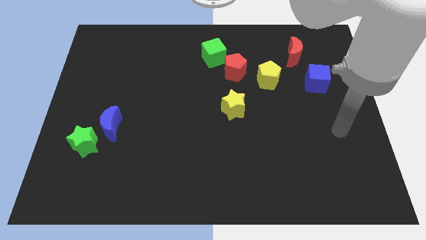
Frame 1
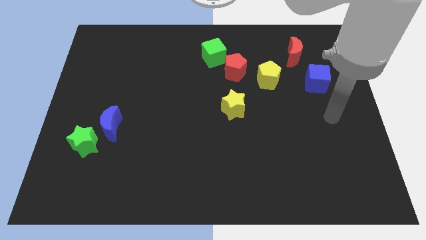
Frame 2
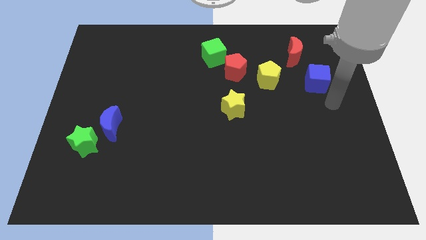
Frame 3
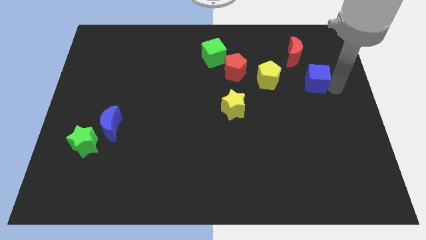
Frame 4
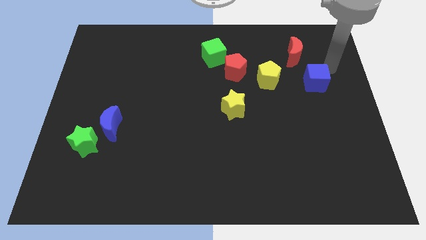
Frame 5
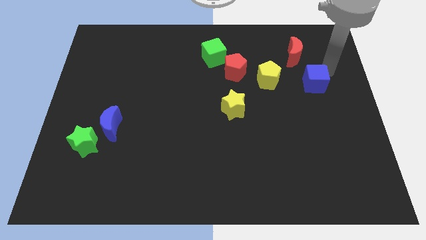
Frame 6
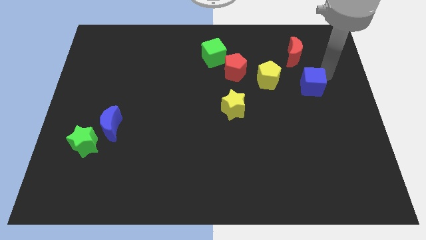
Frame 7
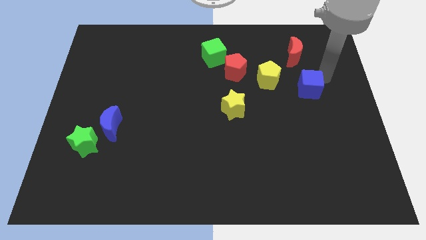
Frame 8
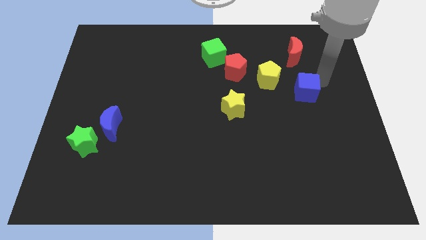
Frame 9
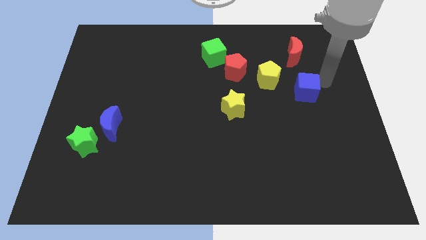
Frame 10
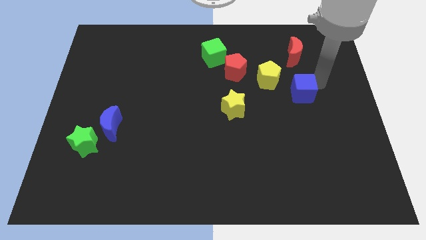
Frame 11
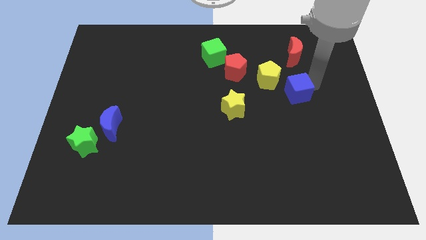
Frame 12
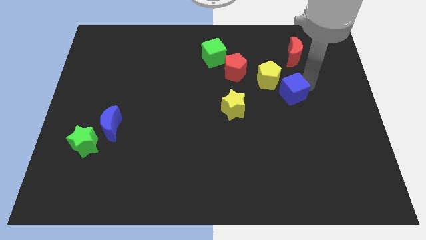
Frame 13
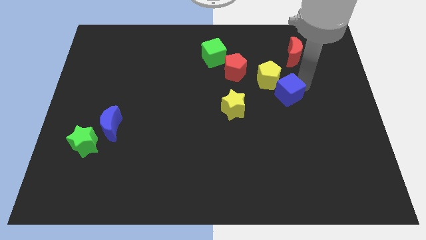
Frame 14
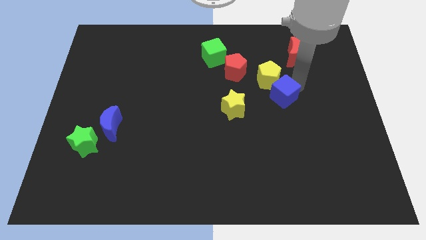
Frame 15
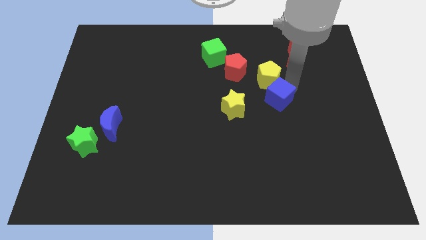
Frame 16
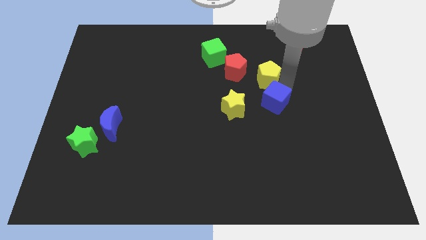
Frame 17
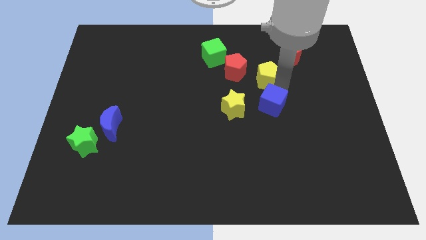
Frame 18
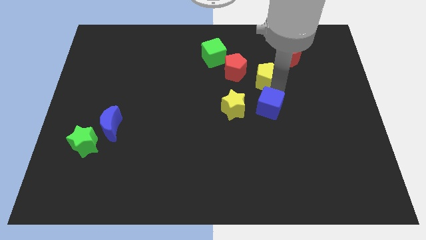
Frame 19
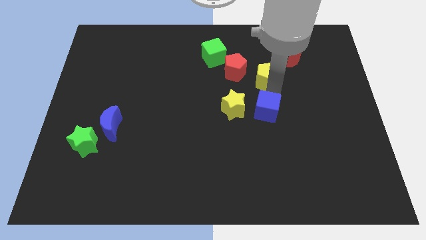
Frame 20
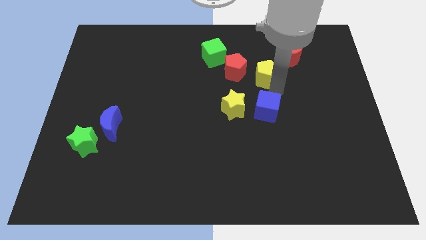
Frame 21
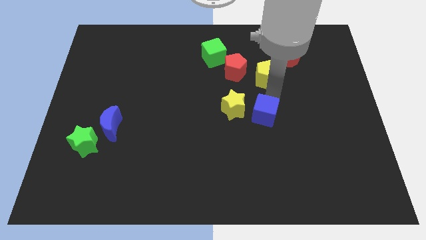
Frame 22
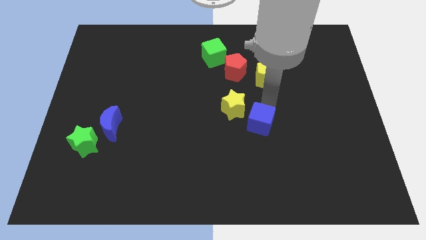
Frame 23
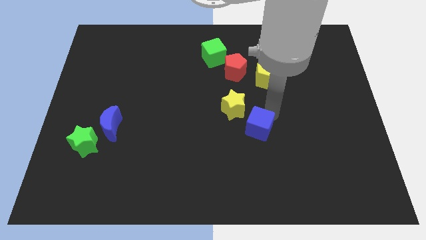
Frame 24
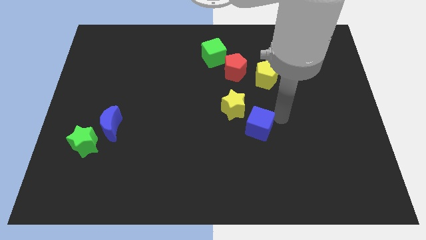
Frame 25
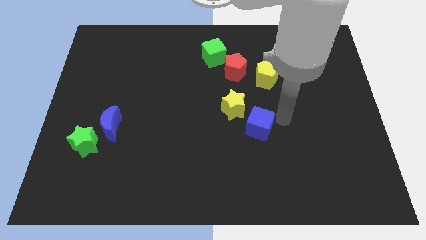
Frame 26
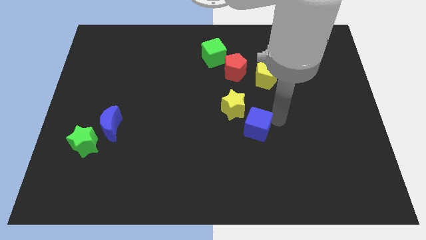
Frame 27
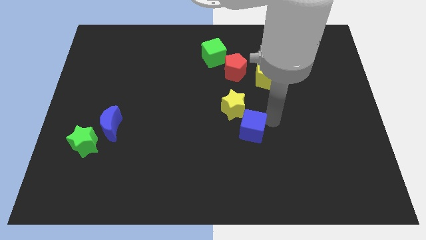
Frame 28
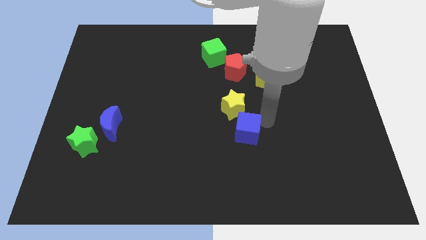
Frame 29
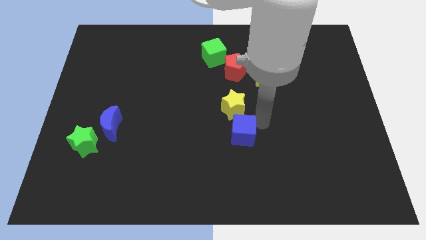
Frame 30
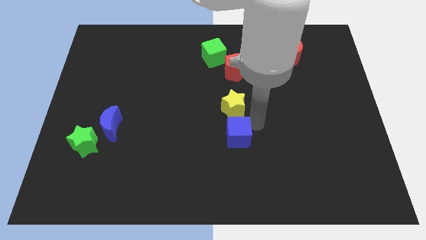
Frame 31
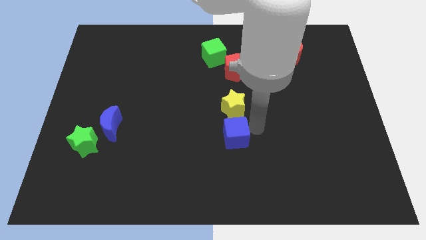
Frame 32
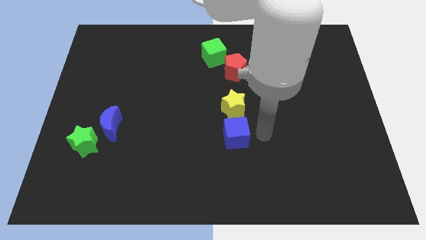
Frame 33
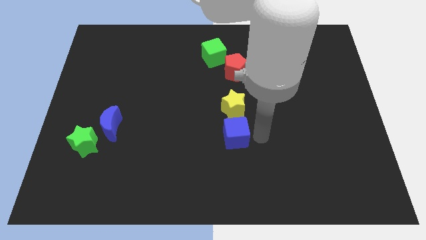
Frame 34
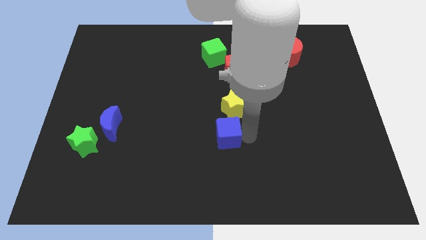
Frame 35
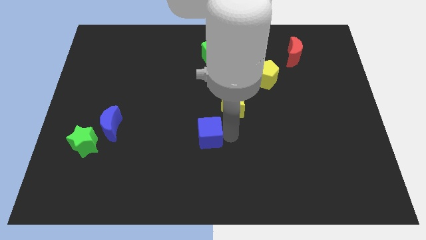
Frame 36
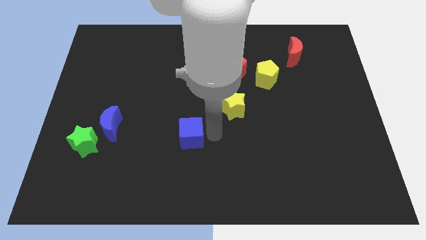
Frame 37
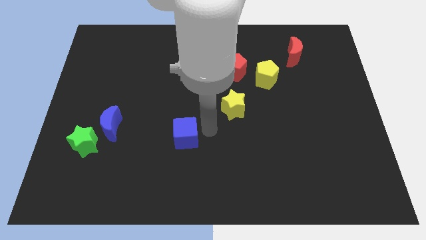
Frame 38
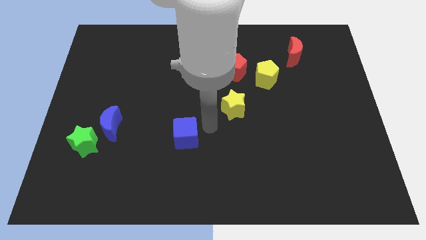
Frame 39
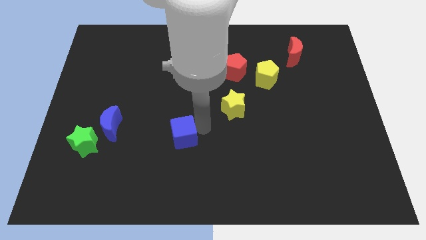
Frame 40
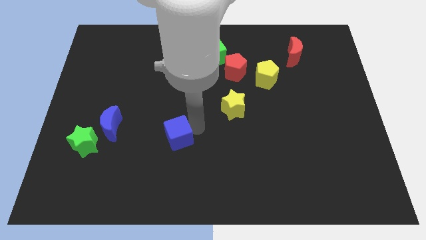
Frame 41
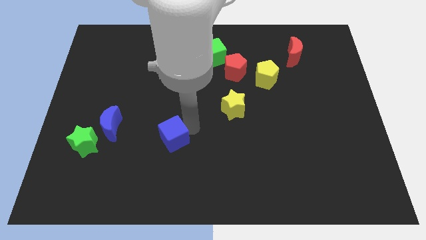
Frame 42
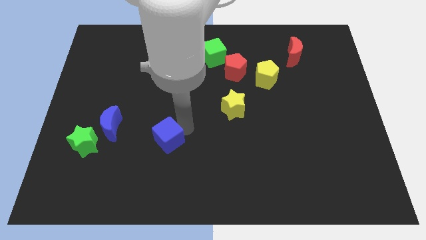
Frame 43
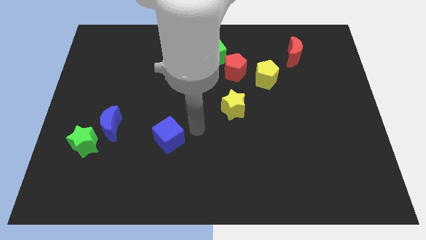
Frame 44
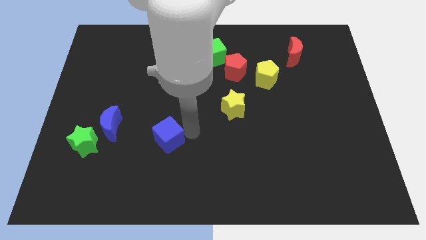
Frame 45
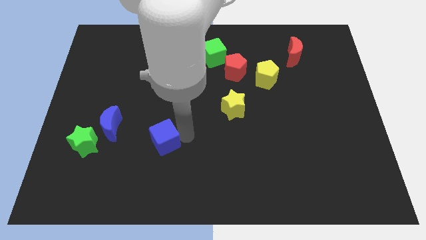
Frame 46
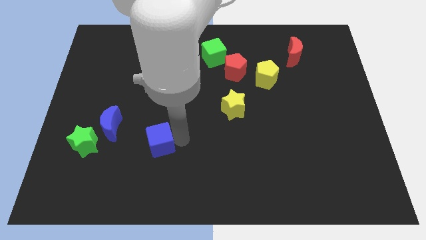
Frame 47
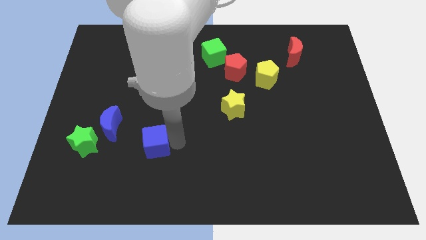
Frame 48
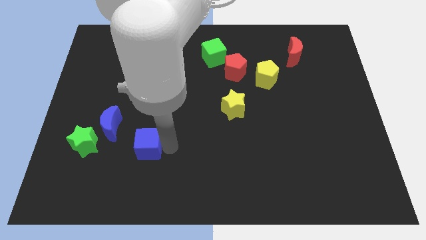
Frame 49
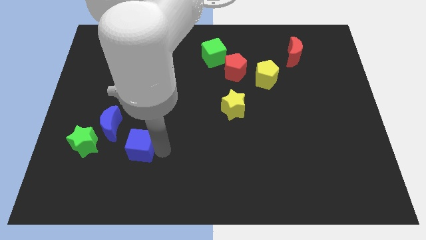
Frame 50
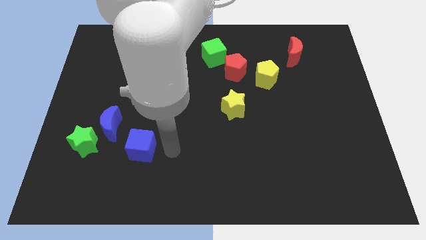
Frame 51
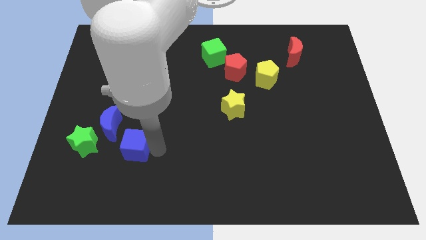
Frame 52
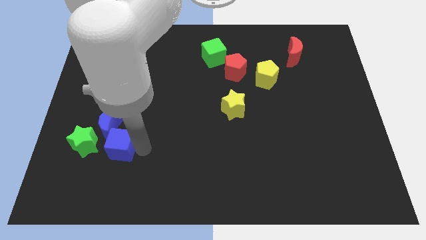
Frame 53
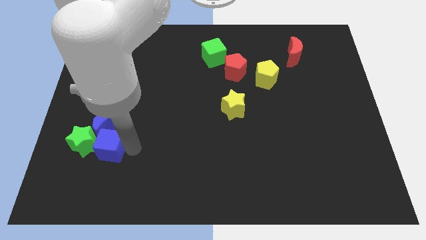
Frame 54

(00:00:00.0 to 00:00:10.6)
put the blue cube to the green star

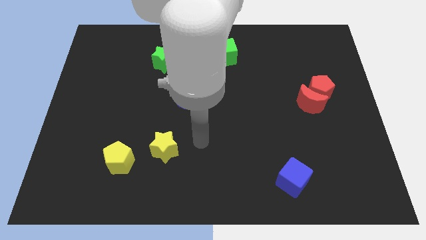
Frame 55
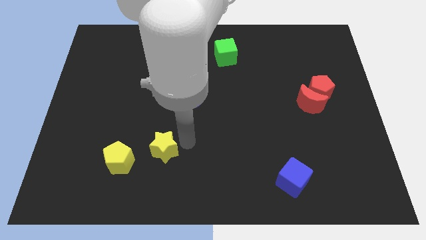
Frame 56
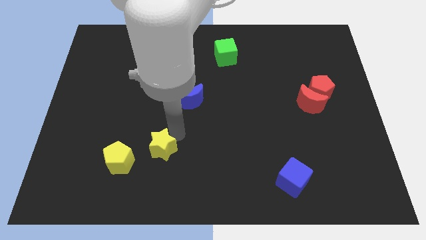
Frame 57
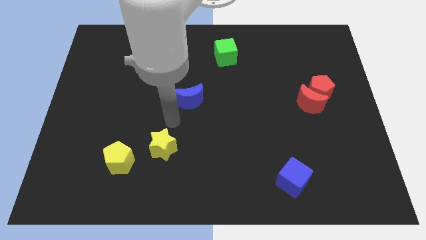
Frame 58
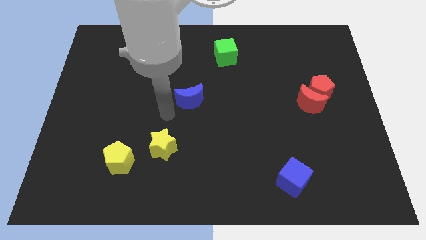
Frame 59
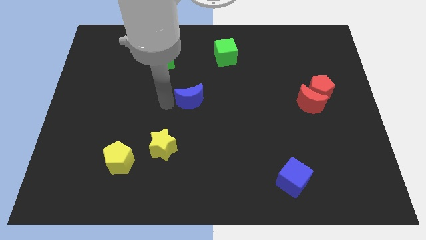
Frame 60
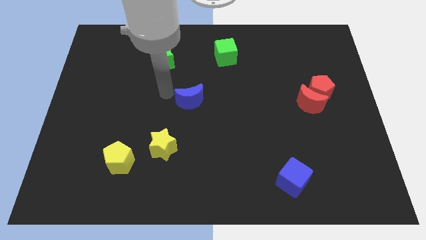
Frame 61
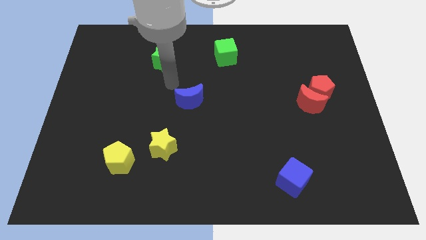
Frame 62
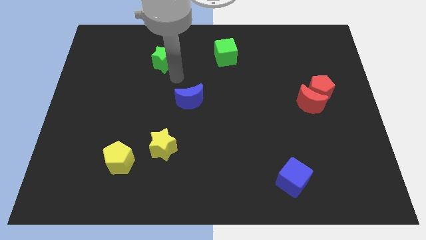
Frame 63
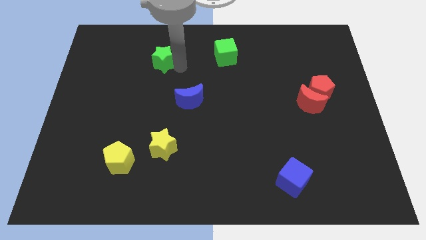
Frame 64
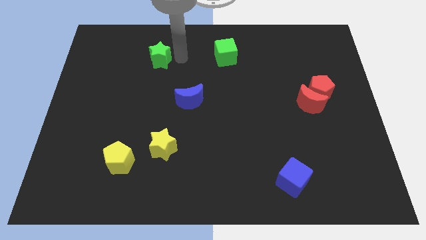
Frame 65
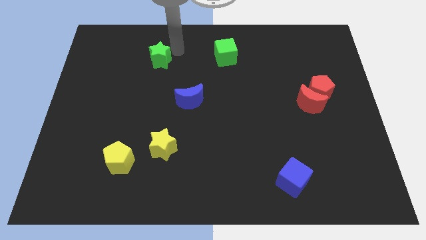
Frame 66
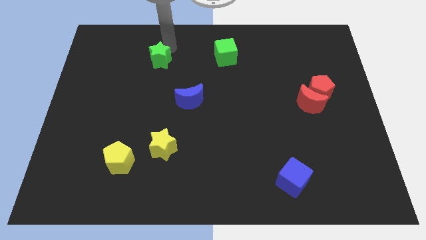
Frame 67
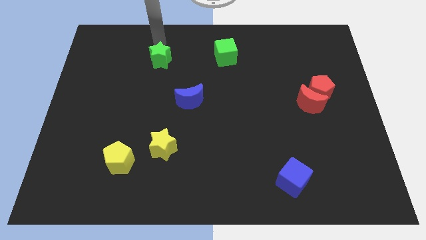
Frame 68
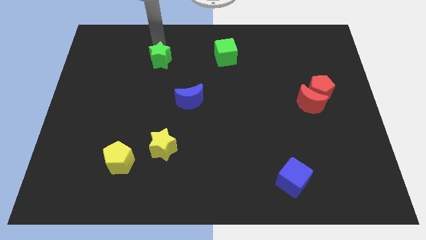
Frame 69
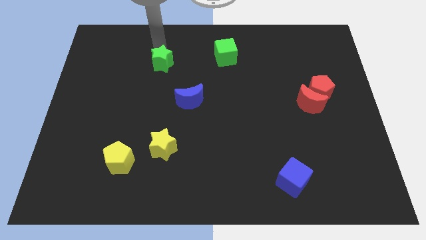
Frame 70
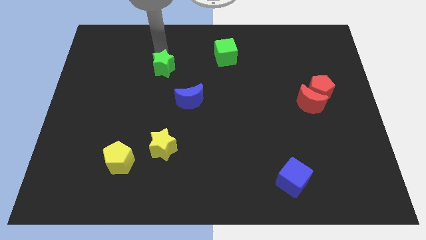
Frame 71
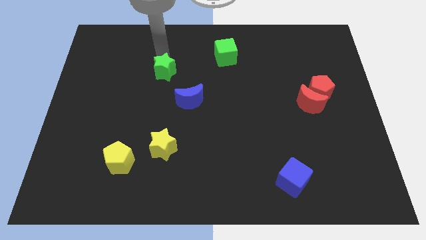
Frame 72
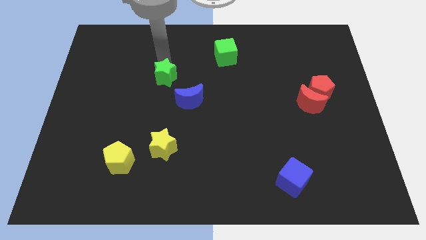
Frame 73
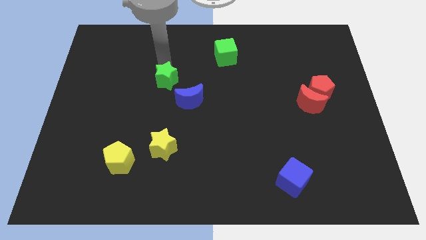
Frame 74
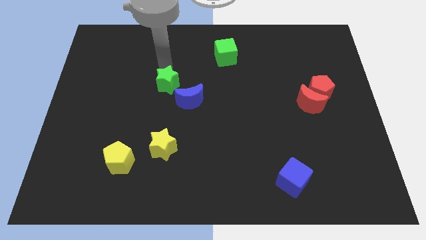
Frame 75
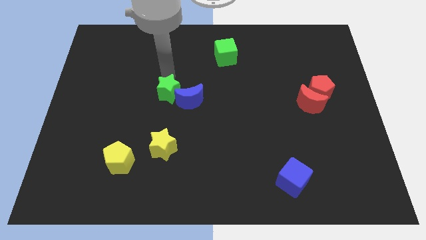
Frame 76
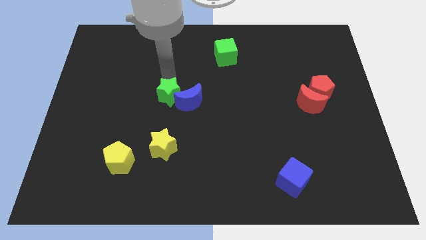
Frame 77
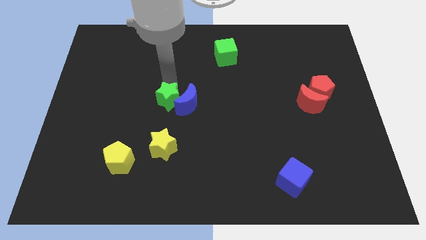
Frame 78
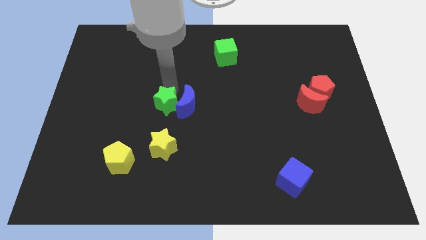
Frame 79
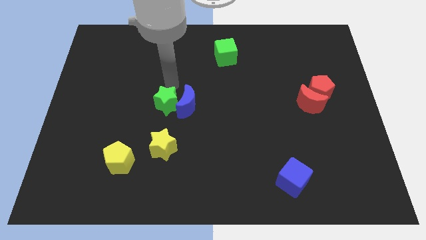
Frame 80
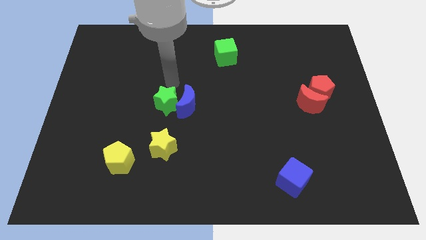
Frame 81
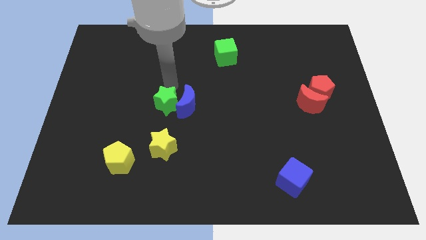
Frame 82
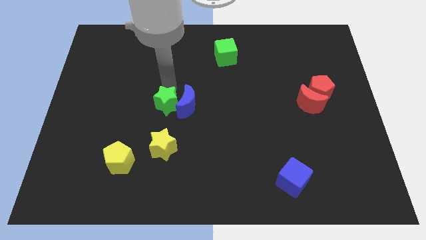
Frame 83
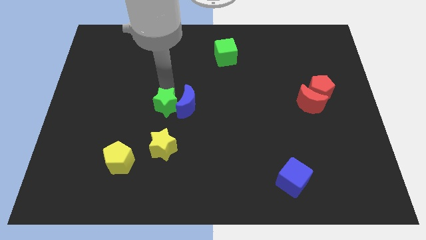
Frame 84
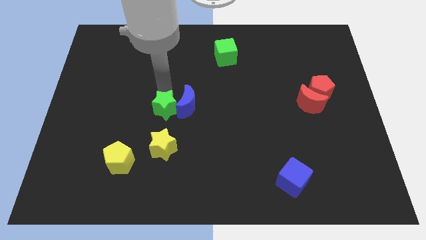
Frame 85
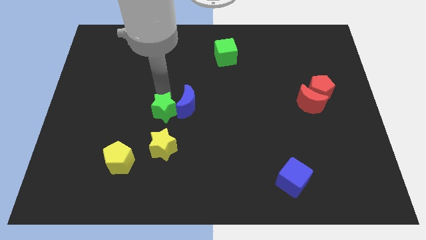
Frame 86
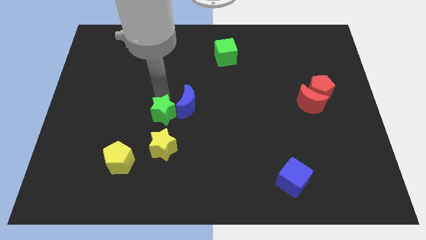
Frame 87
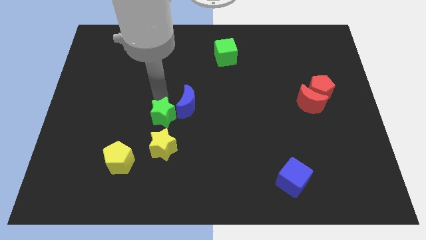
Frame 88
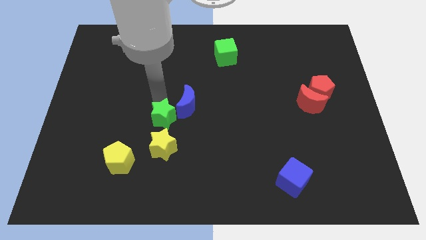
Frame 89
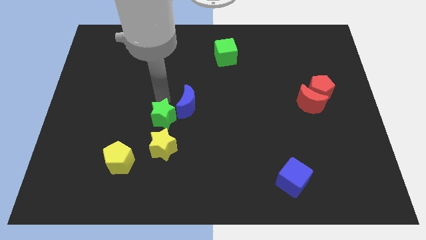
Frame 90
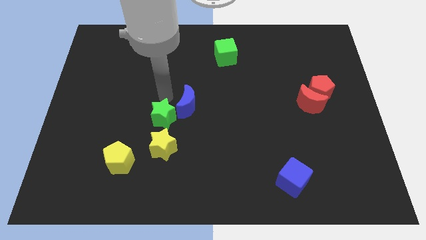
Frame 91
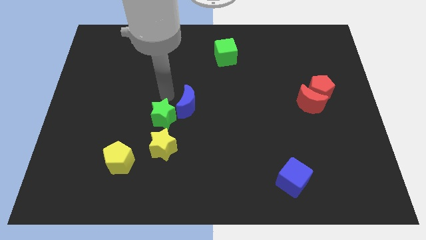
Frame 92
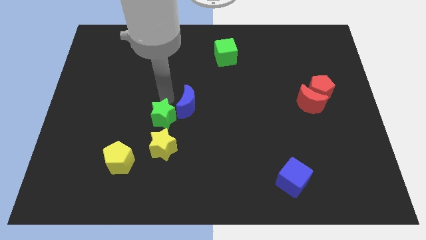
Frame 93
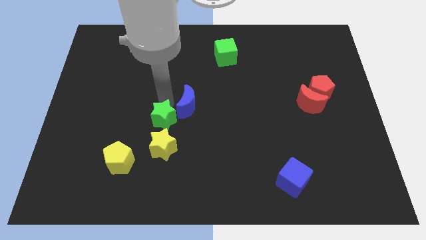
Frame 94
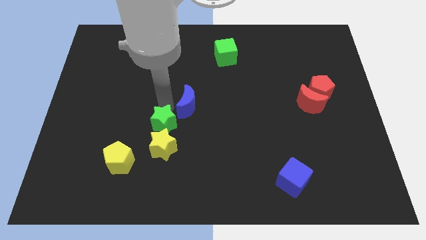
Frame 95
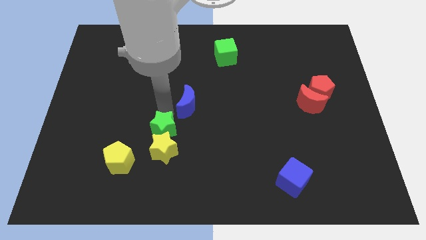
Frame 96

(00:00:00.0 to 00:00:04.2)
push the green star close to the yellow star
